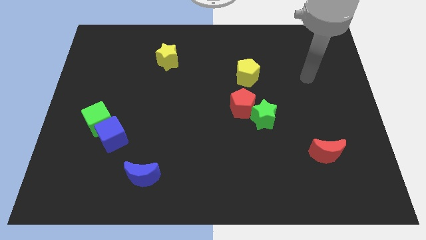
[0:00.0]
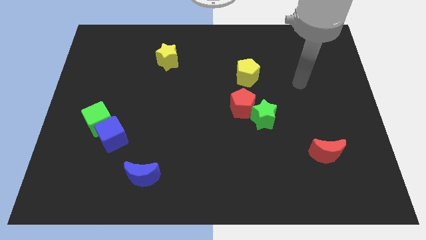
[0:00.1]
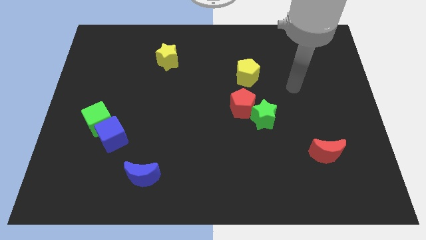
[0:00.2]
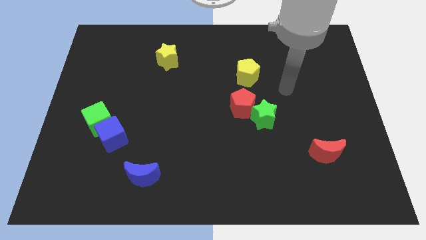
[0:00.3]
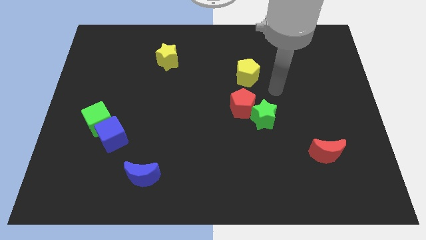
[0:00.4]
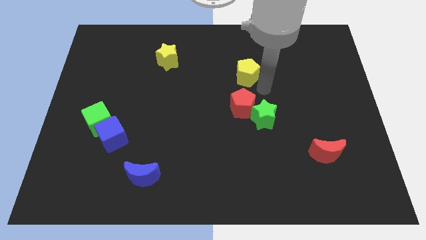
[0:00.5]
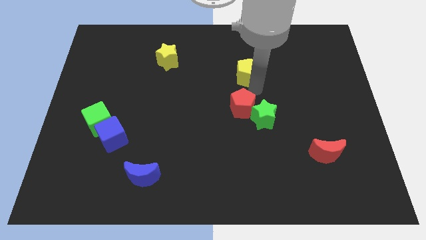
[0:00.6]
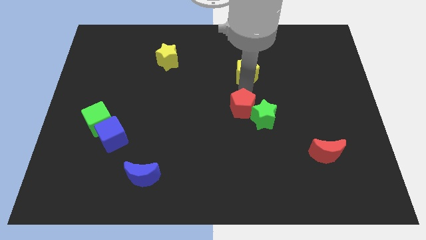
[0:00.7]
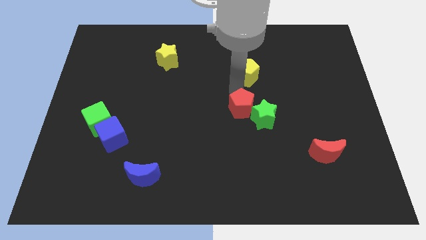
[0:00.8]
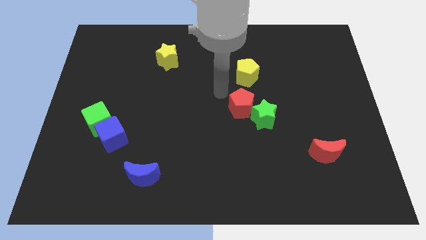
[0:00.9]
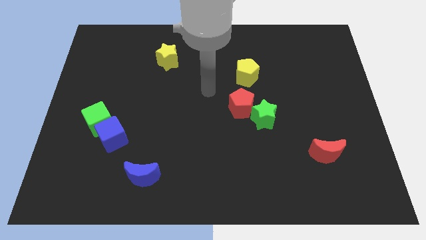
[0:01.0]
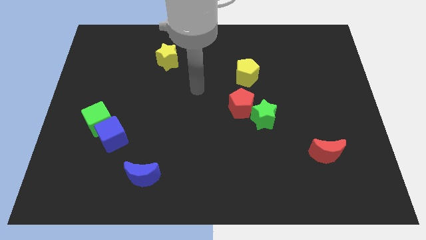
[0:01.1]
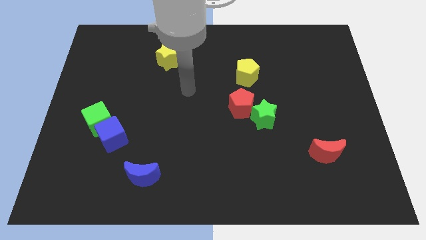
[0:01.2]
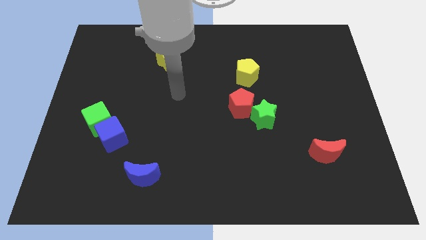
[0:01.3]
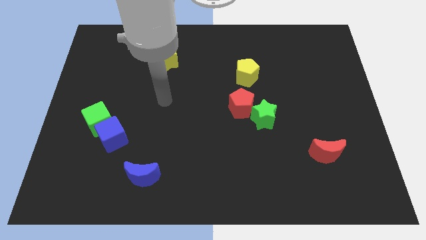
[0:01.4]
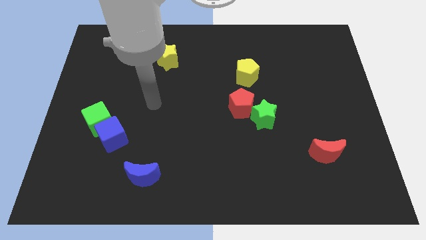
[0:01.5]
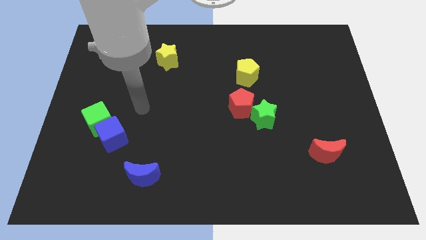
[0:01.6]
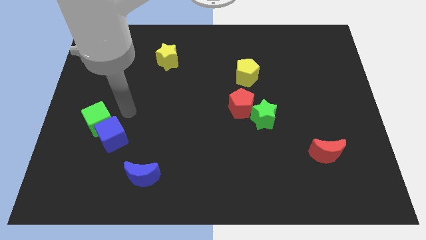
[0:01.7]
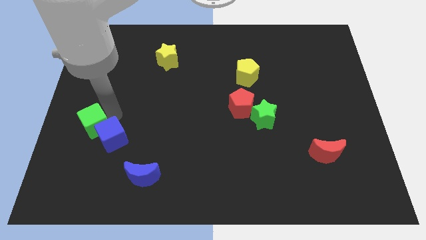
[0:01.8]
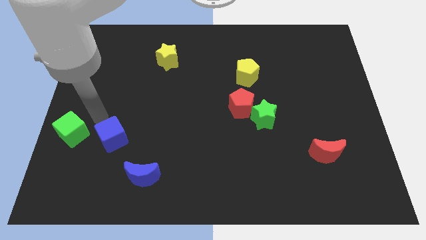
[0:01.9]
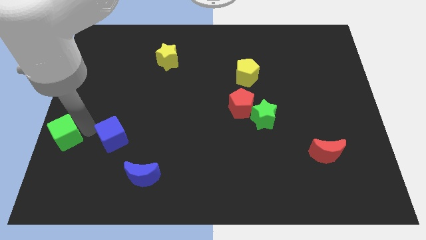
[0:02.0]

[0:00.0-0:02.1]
separate the blue cube from the green cube

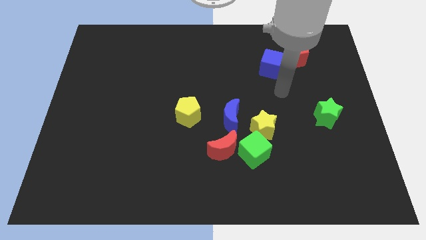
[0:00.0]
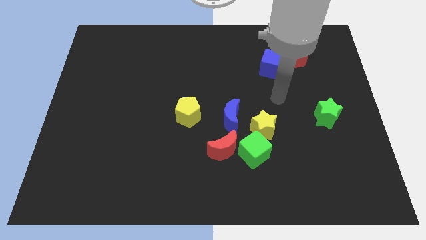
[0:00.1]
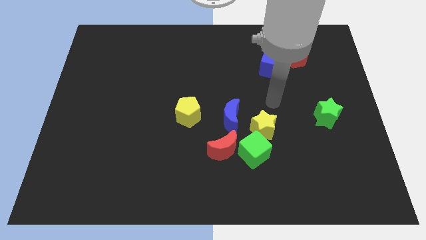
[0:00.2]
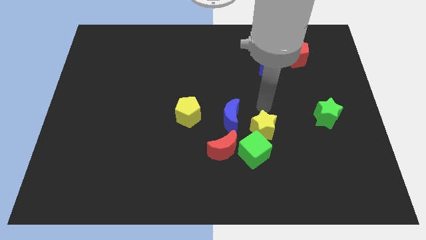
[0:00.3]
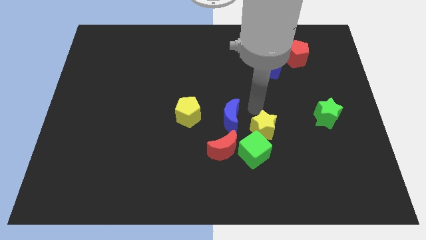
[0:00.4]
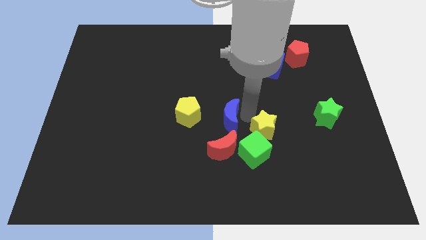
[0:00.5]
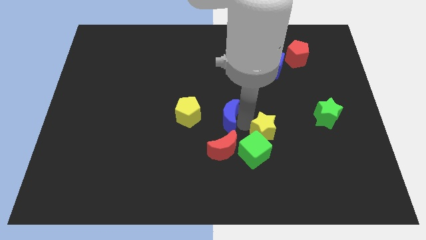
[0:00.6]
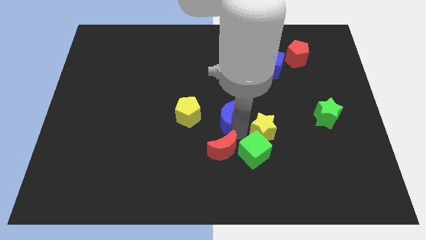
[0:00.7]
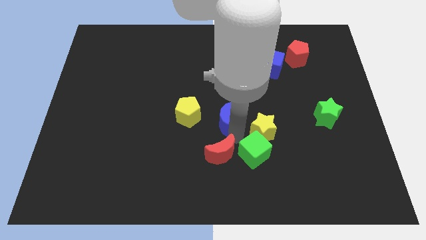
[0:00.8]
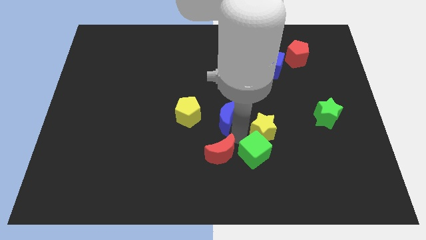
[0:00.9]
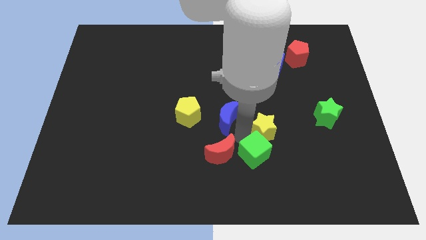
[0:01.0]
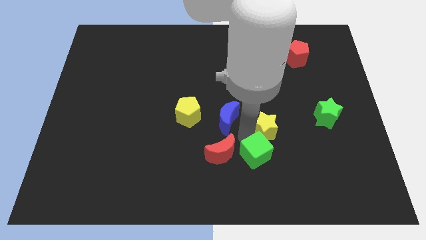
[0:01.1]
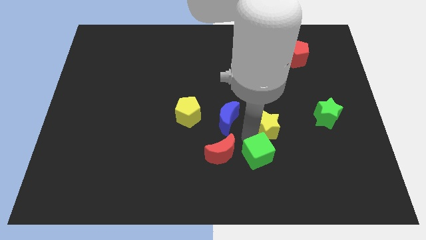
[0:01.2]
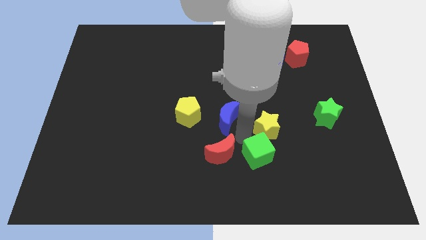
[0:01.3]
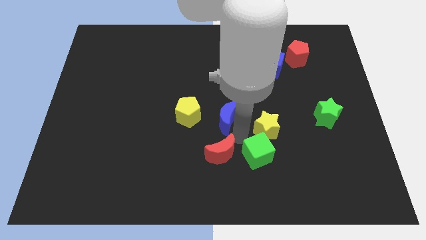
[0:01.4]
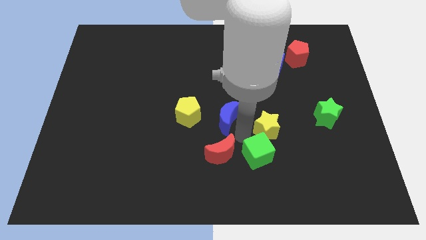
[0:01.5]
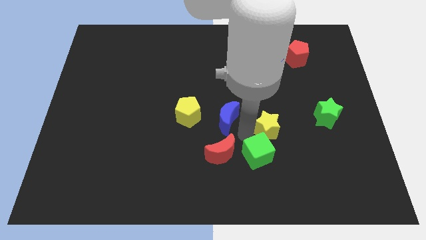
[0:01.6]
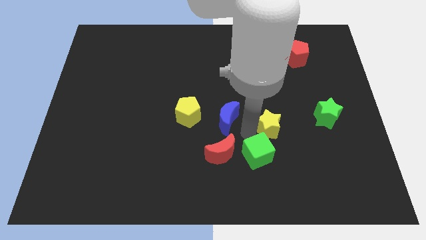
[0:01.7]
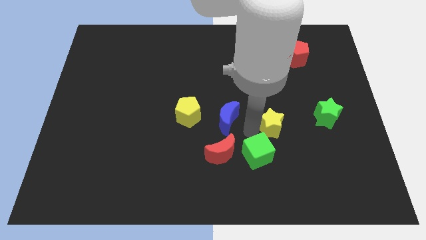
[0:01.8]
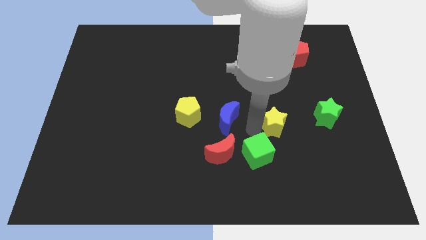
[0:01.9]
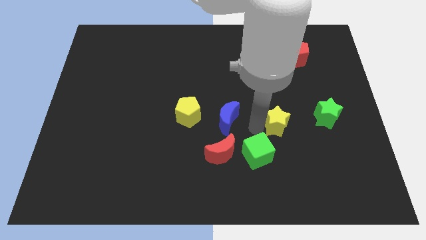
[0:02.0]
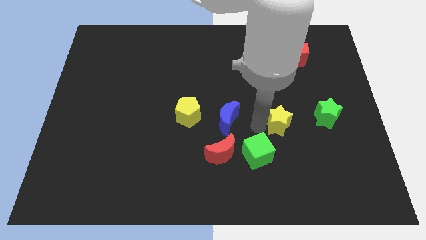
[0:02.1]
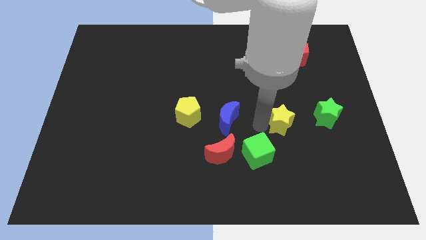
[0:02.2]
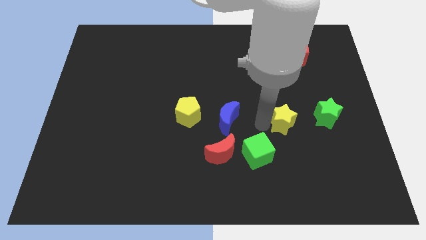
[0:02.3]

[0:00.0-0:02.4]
separate the yellow star from the green cube and blue moon

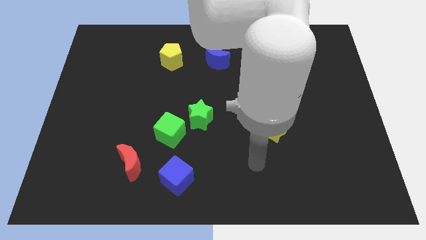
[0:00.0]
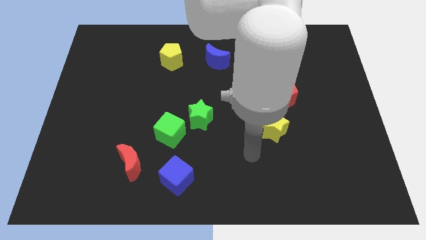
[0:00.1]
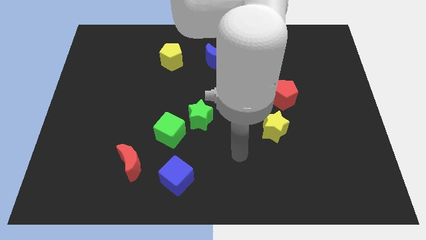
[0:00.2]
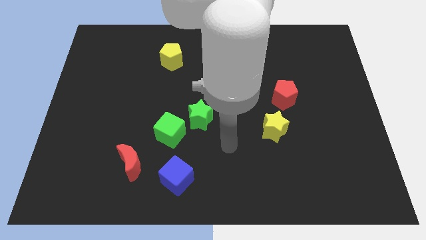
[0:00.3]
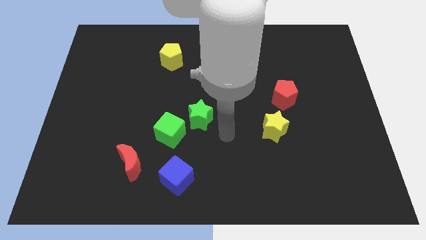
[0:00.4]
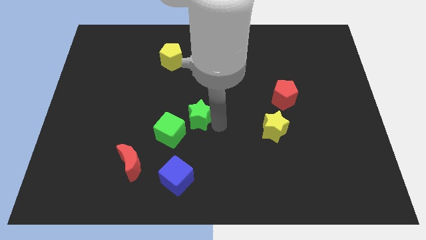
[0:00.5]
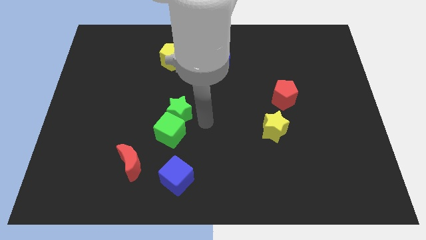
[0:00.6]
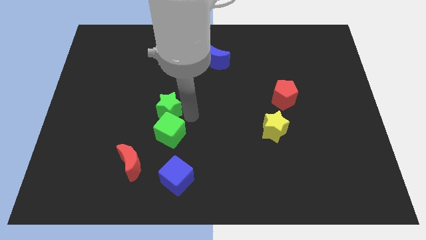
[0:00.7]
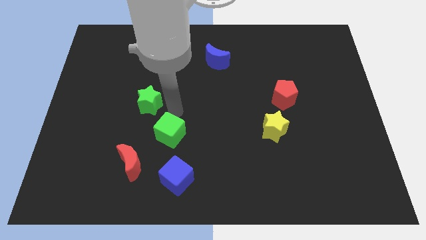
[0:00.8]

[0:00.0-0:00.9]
move the green cube away from the green star

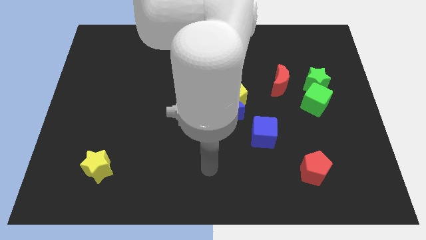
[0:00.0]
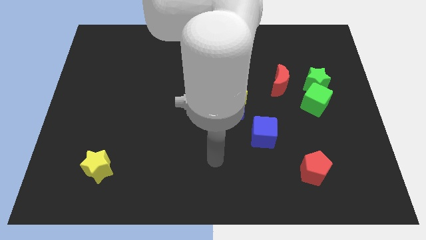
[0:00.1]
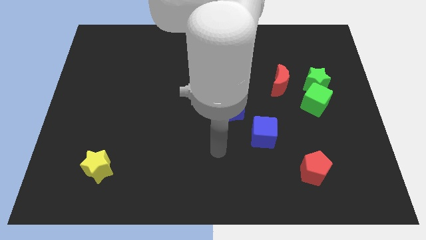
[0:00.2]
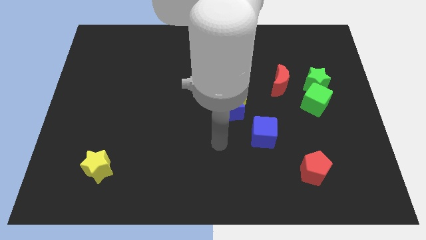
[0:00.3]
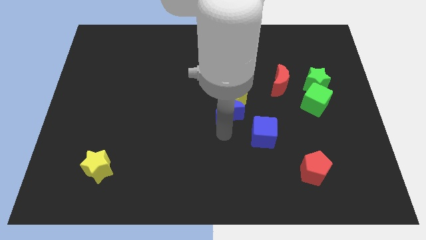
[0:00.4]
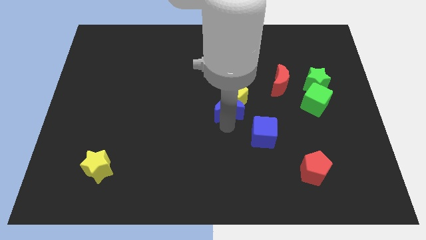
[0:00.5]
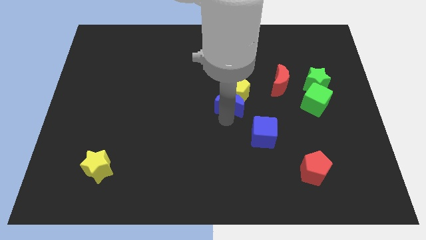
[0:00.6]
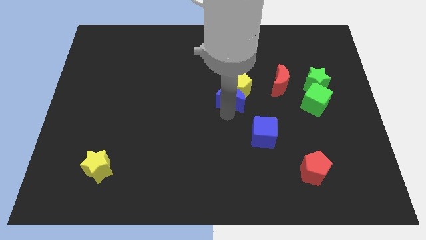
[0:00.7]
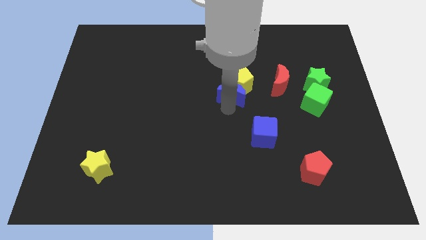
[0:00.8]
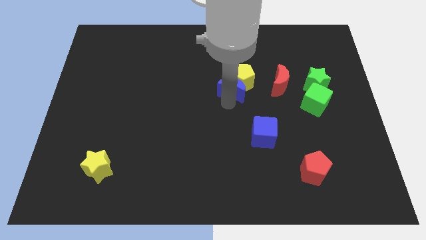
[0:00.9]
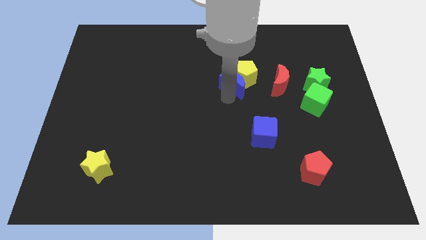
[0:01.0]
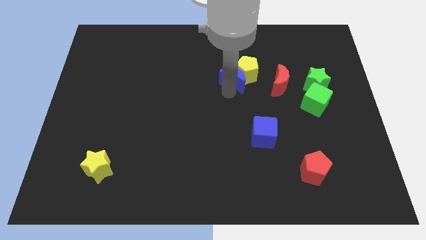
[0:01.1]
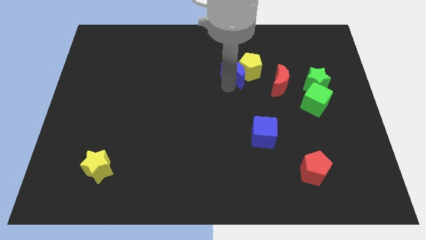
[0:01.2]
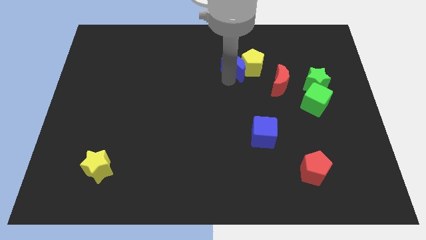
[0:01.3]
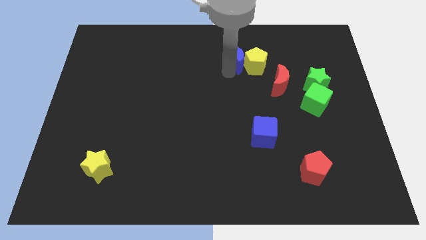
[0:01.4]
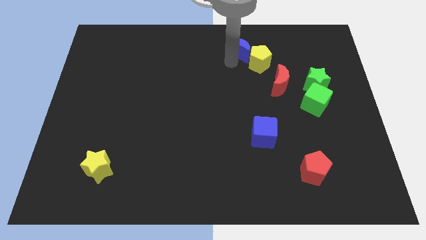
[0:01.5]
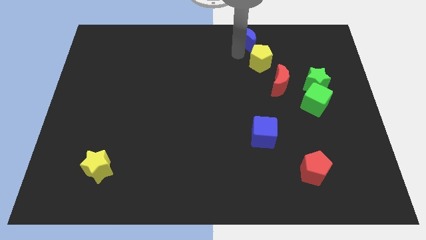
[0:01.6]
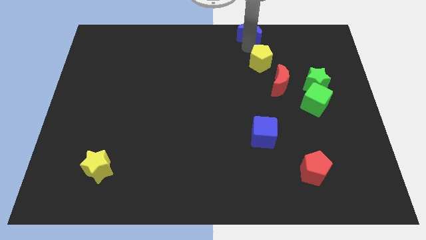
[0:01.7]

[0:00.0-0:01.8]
pull the yellow pentagon apart from the blue moon

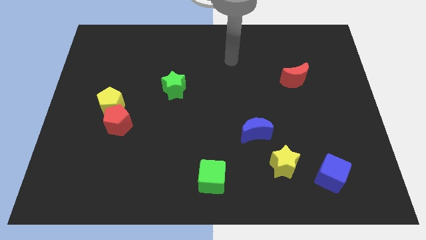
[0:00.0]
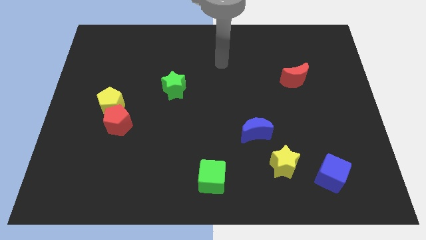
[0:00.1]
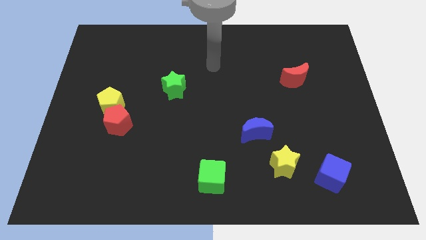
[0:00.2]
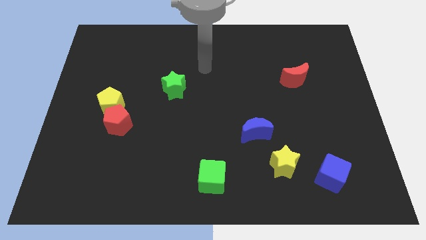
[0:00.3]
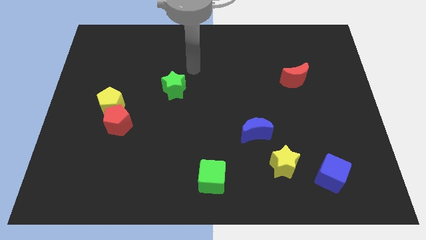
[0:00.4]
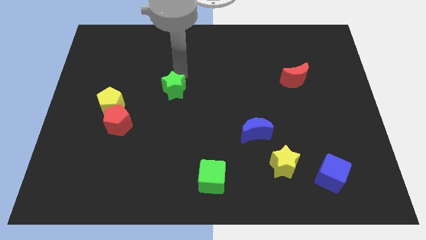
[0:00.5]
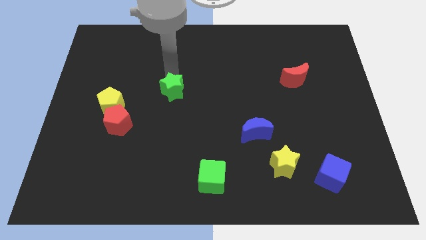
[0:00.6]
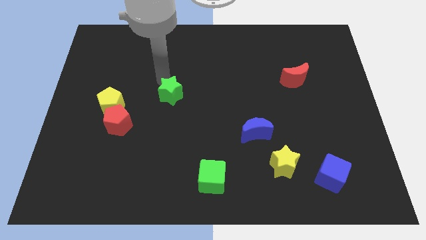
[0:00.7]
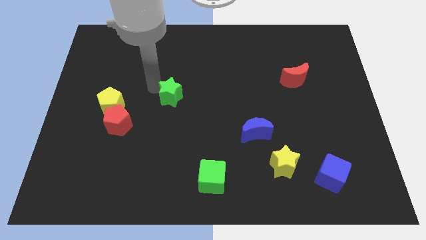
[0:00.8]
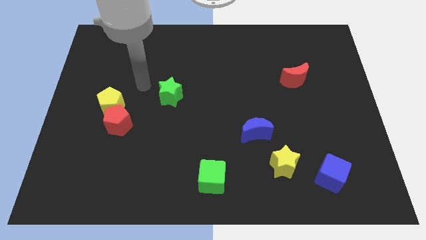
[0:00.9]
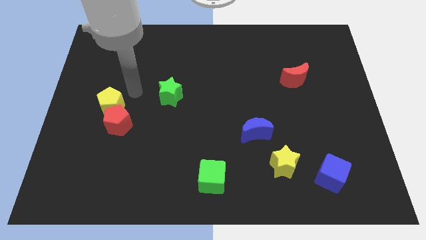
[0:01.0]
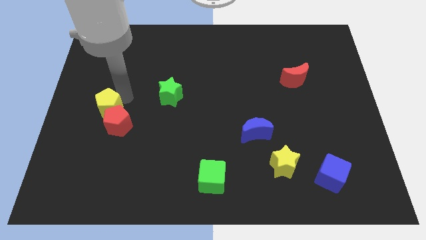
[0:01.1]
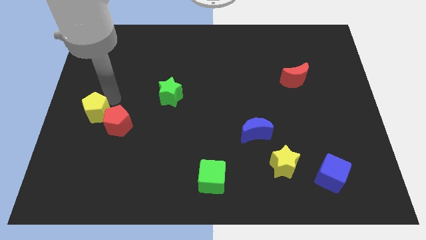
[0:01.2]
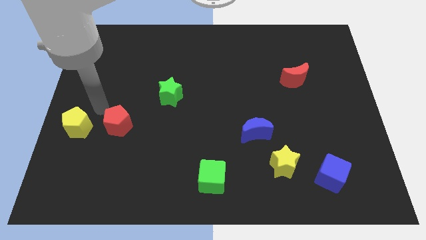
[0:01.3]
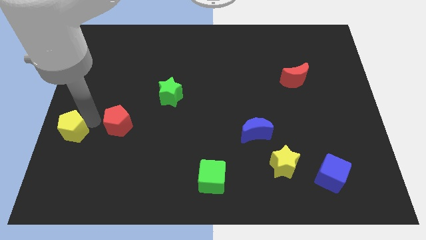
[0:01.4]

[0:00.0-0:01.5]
move the red pentagon away from the yellow pentagon

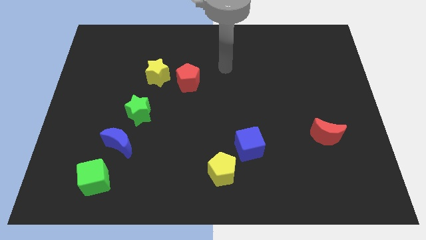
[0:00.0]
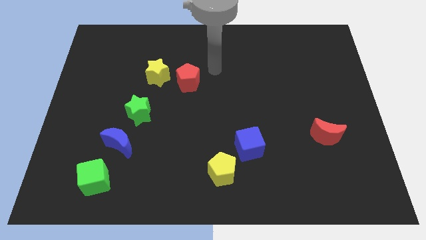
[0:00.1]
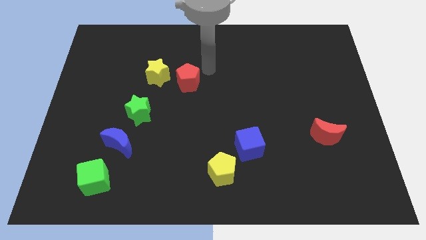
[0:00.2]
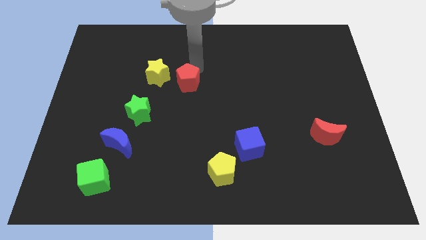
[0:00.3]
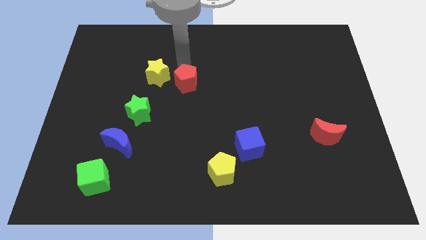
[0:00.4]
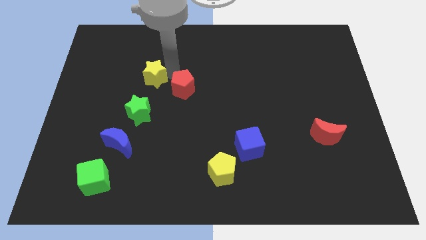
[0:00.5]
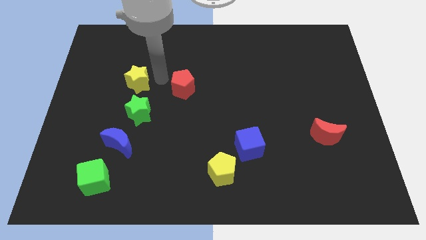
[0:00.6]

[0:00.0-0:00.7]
pull the red pentagon apart from the yellow star
